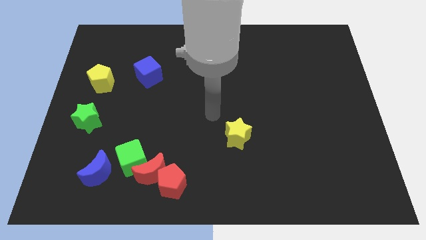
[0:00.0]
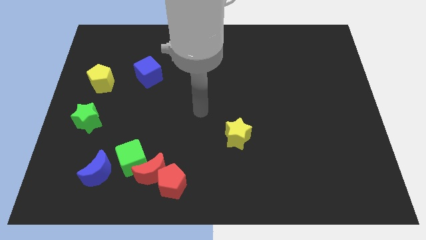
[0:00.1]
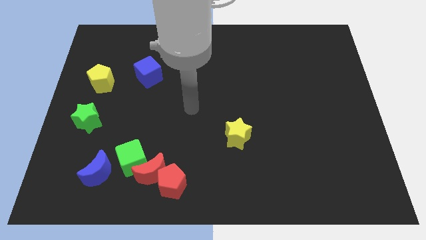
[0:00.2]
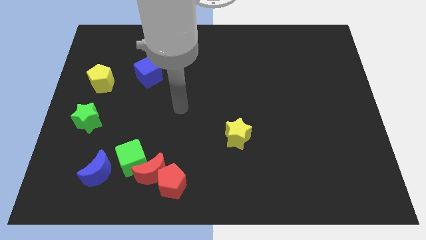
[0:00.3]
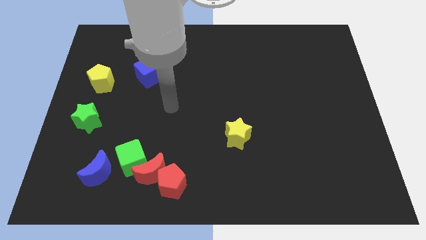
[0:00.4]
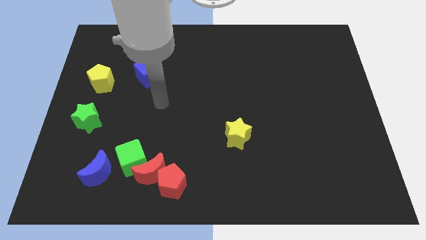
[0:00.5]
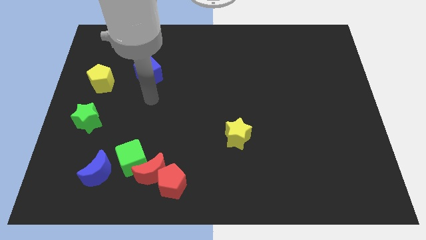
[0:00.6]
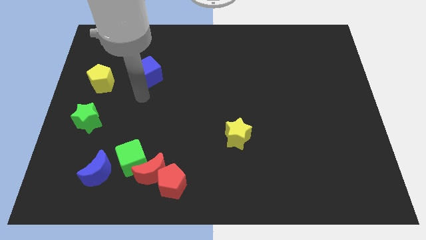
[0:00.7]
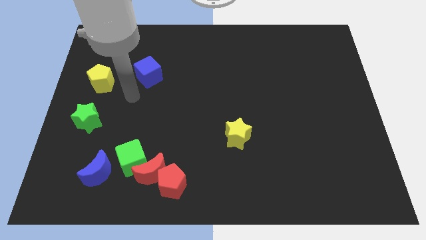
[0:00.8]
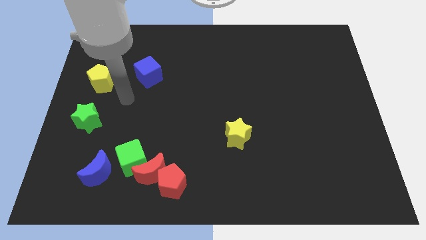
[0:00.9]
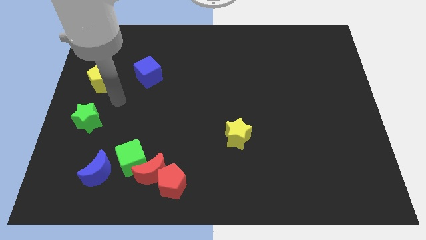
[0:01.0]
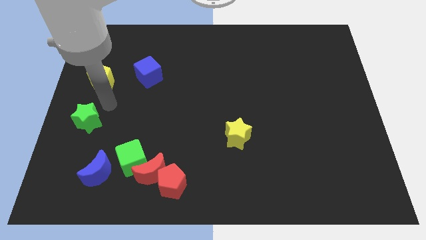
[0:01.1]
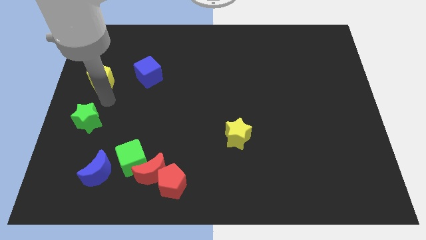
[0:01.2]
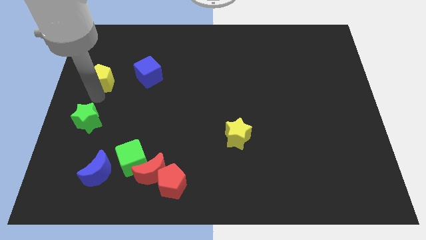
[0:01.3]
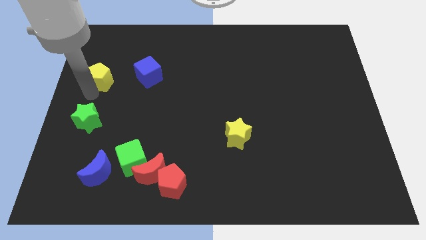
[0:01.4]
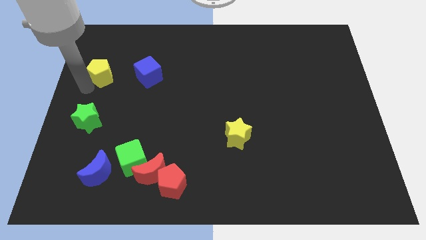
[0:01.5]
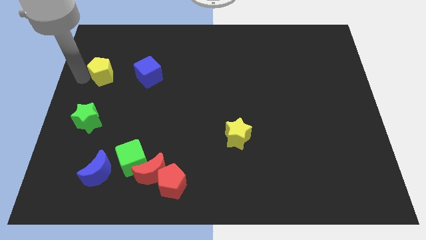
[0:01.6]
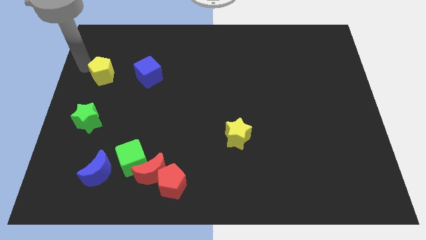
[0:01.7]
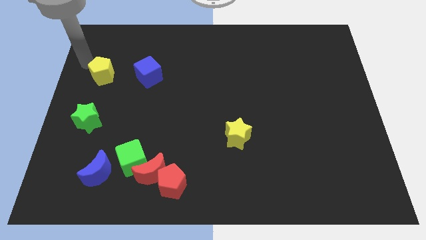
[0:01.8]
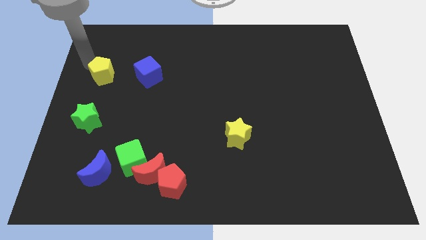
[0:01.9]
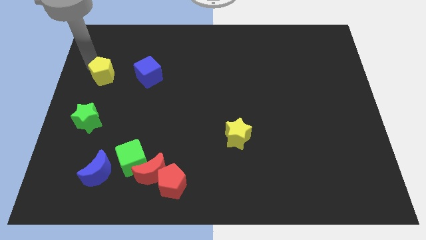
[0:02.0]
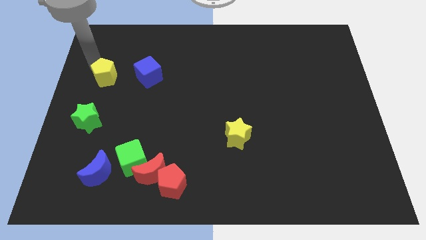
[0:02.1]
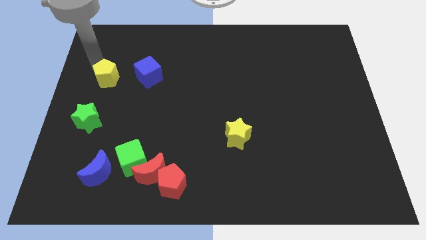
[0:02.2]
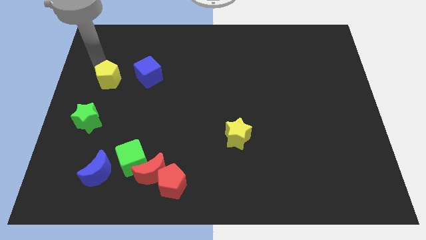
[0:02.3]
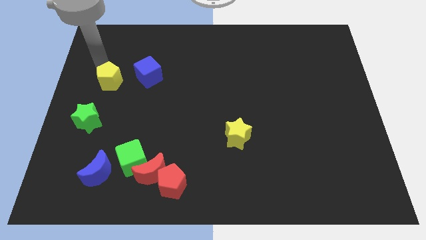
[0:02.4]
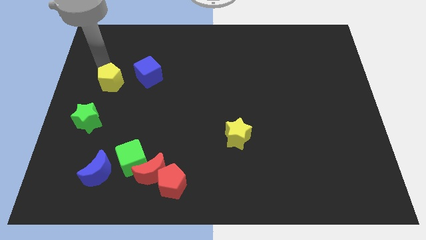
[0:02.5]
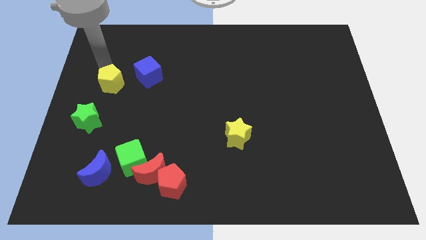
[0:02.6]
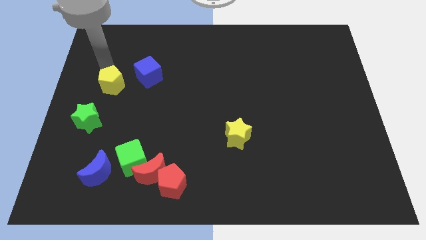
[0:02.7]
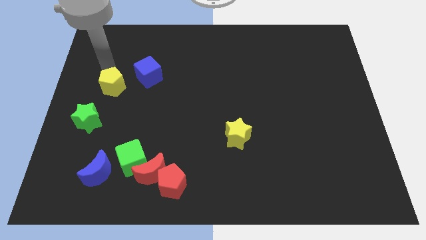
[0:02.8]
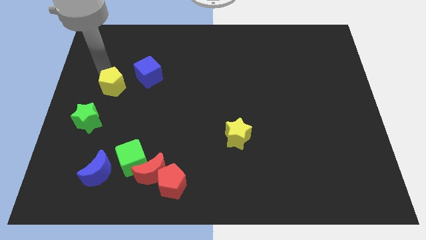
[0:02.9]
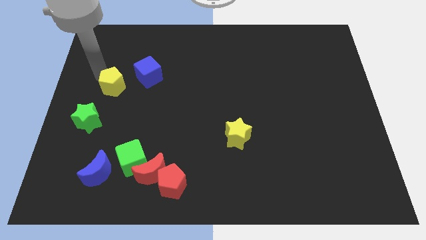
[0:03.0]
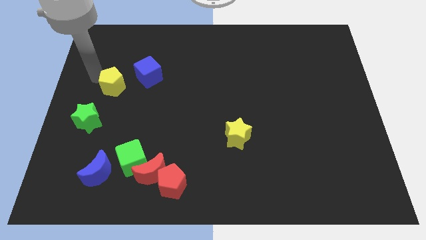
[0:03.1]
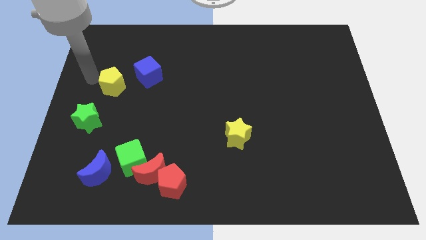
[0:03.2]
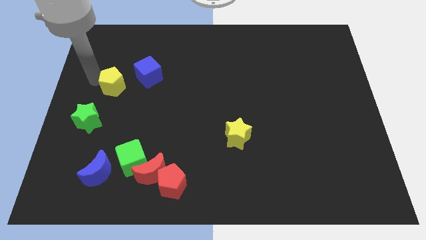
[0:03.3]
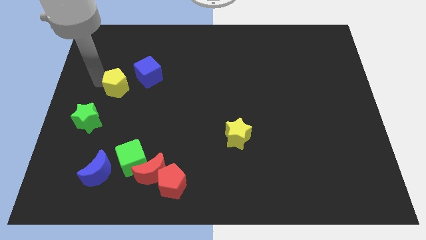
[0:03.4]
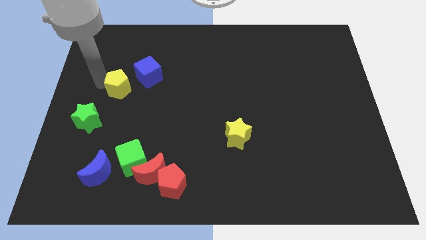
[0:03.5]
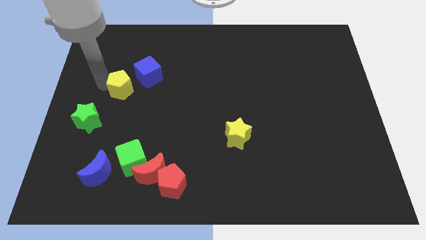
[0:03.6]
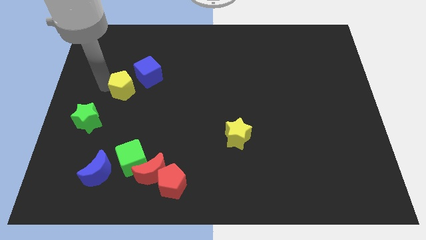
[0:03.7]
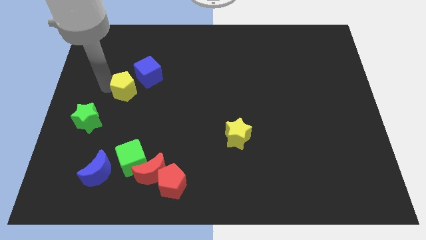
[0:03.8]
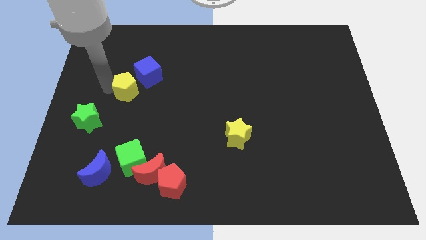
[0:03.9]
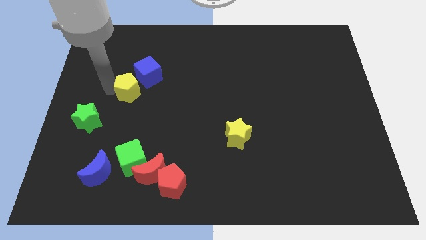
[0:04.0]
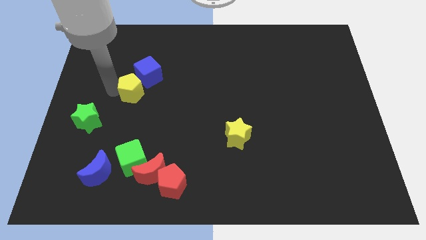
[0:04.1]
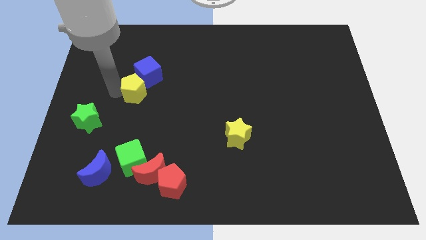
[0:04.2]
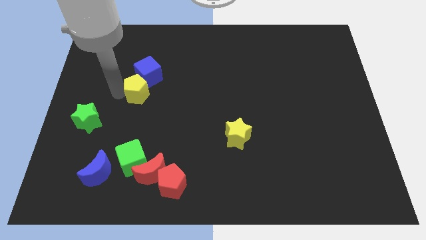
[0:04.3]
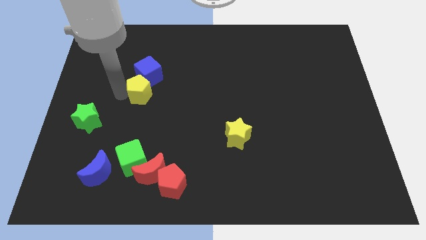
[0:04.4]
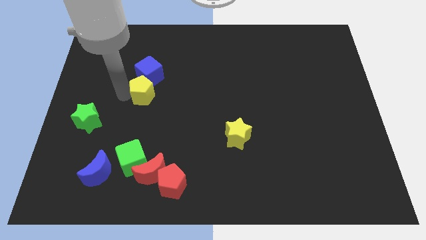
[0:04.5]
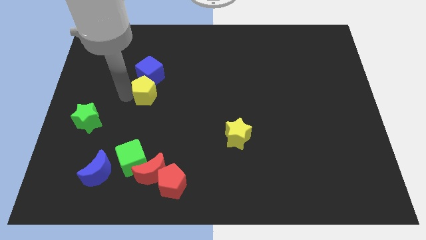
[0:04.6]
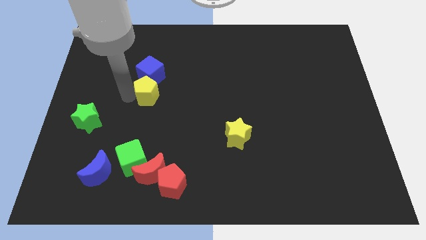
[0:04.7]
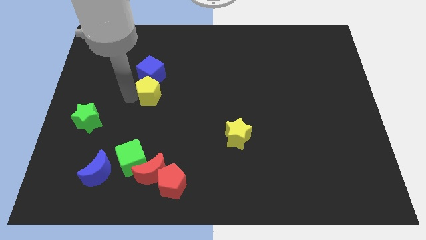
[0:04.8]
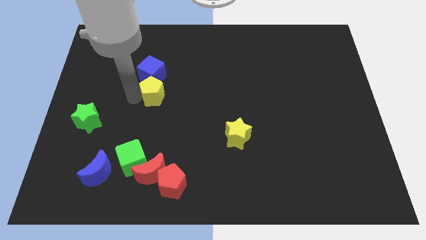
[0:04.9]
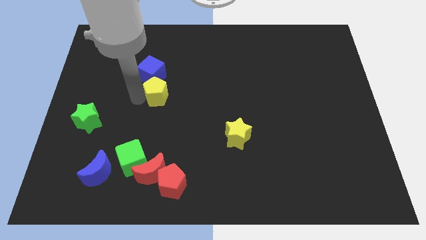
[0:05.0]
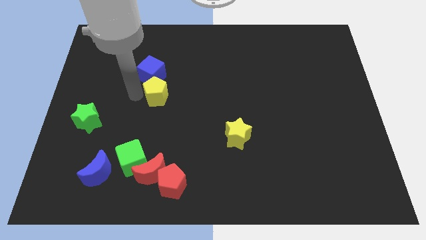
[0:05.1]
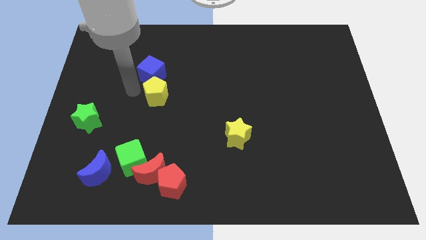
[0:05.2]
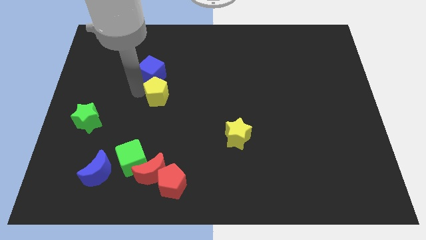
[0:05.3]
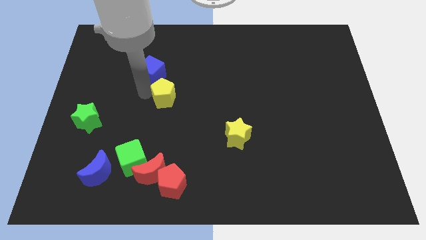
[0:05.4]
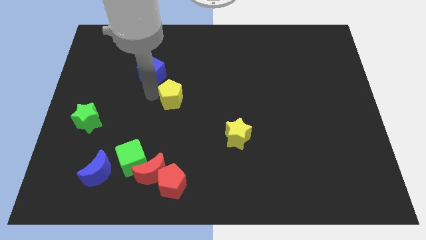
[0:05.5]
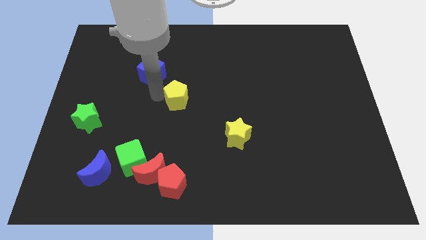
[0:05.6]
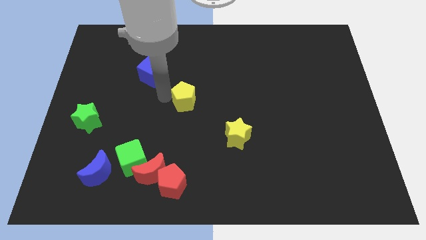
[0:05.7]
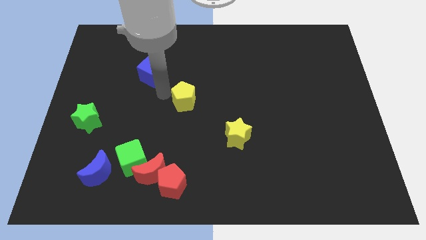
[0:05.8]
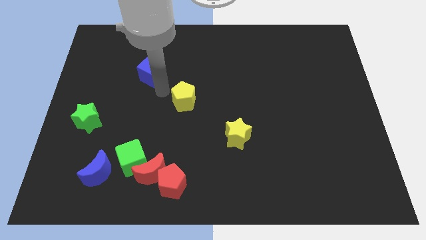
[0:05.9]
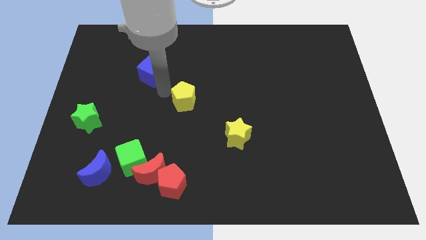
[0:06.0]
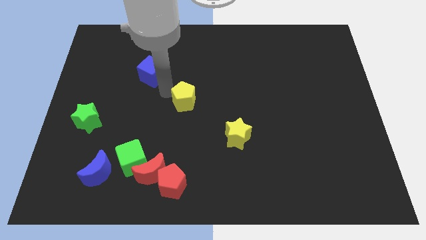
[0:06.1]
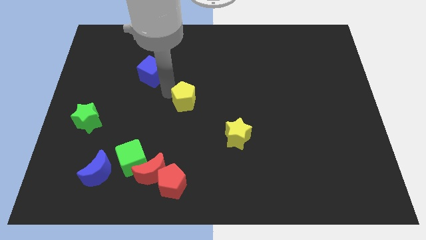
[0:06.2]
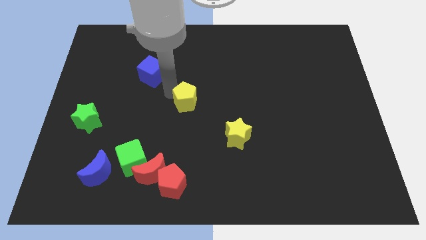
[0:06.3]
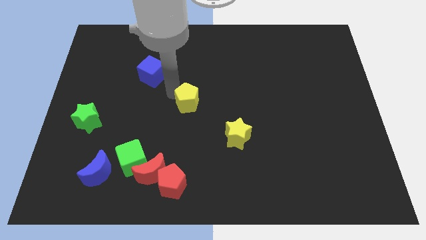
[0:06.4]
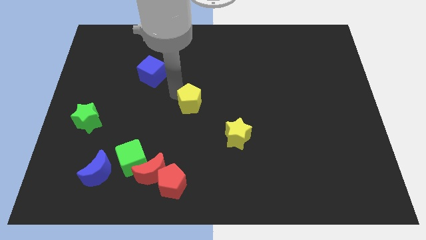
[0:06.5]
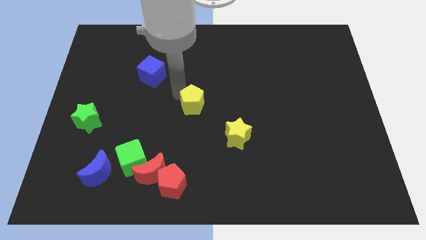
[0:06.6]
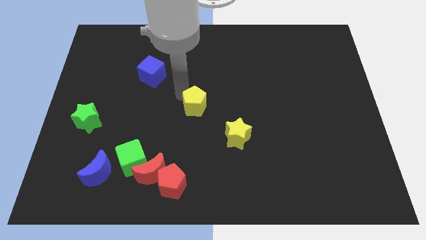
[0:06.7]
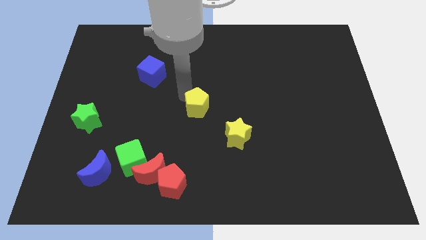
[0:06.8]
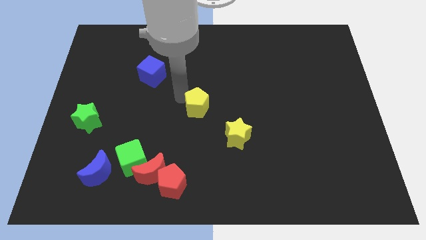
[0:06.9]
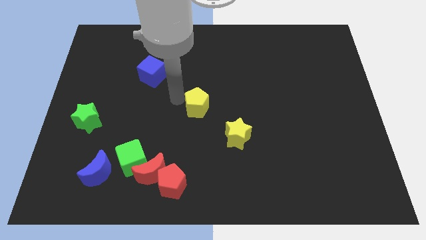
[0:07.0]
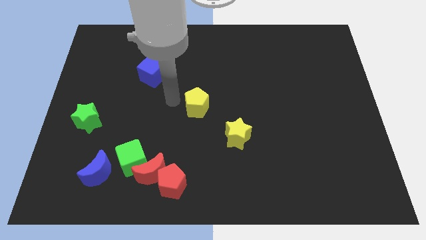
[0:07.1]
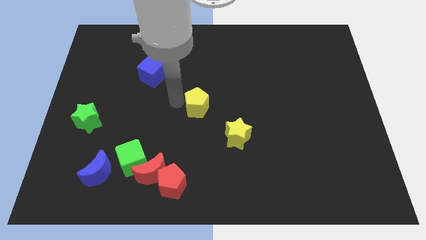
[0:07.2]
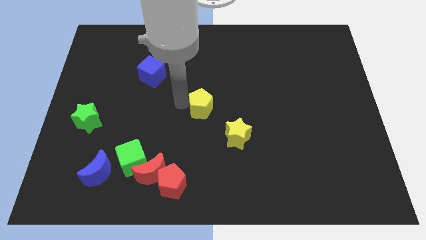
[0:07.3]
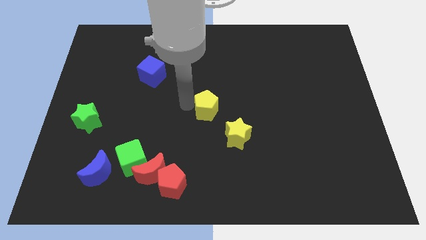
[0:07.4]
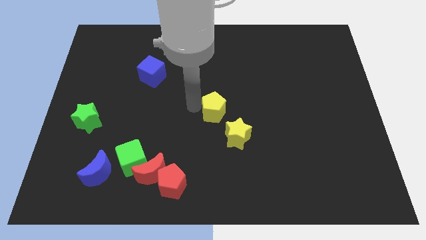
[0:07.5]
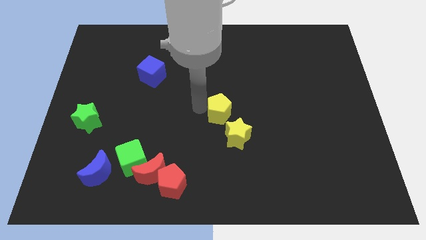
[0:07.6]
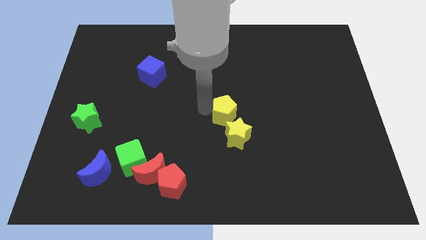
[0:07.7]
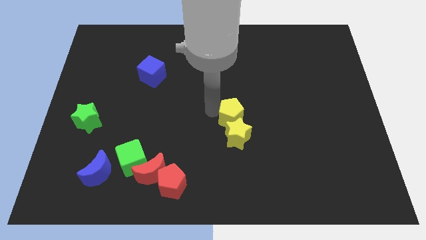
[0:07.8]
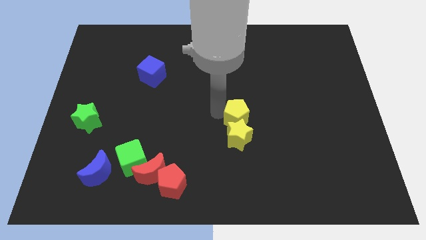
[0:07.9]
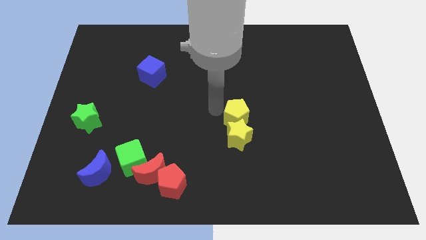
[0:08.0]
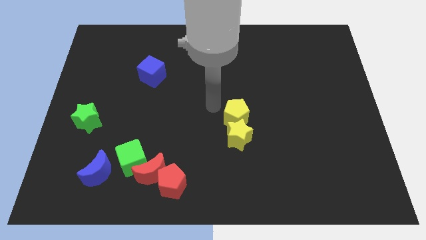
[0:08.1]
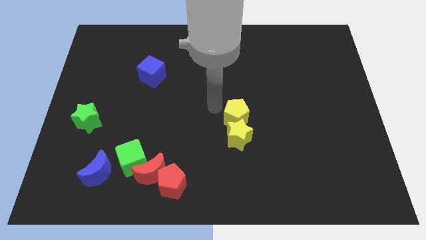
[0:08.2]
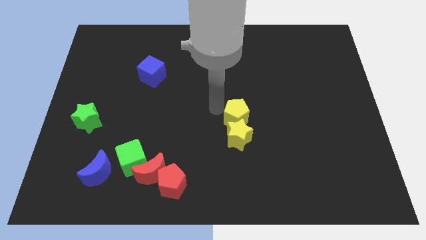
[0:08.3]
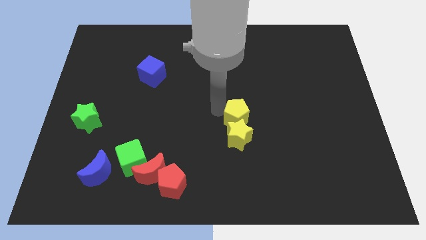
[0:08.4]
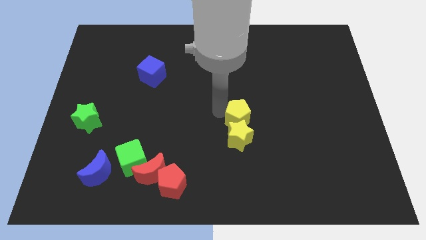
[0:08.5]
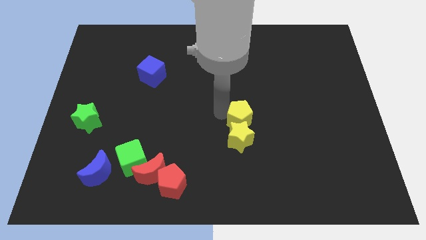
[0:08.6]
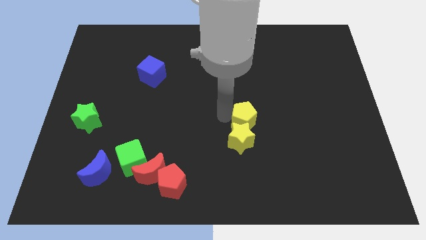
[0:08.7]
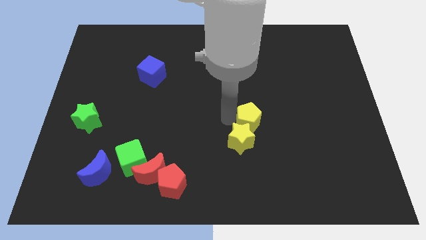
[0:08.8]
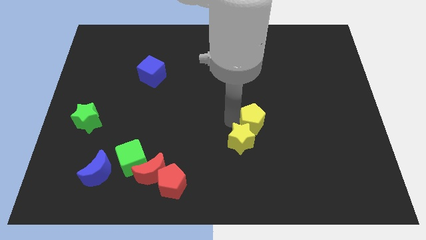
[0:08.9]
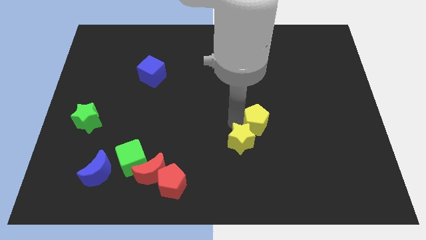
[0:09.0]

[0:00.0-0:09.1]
push the yellow pentagon to the right of the yellow star
